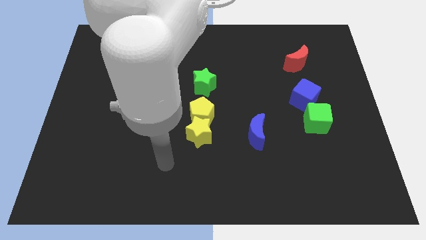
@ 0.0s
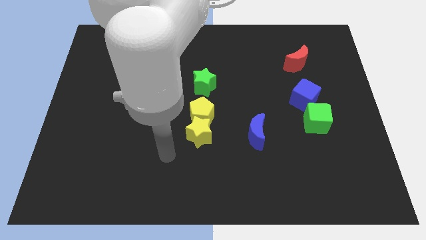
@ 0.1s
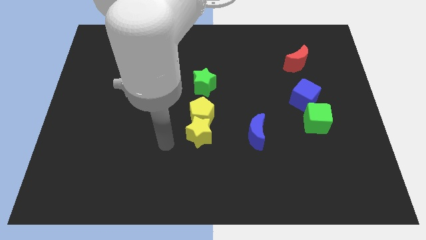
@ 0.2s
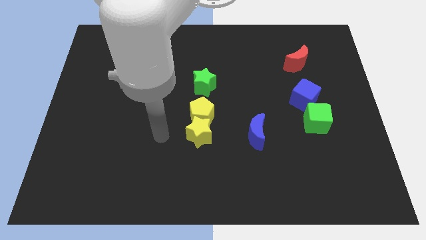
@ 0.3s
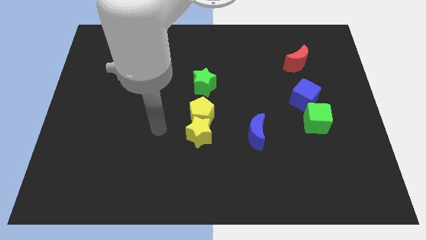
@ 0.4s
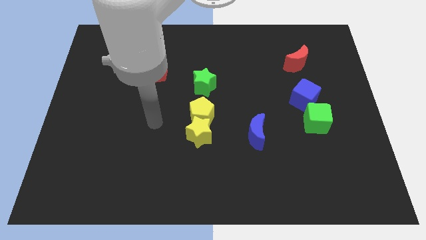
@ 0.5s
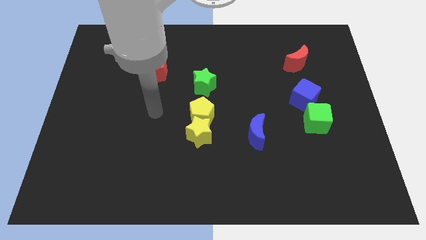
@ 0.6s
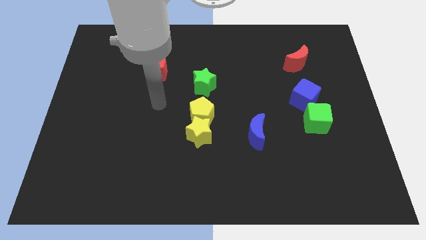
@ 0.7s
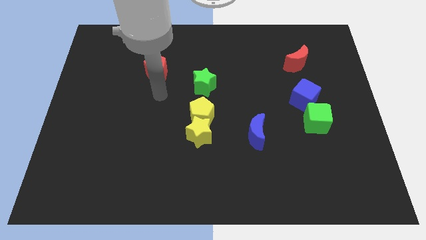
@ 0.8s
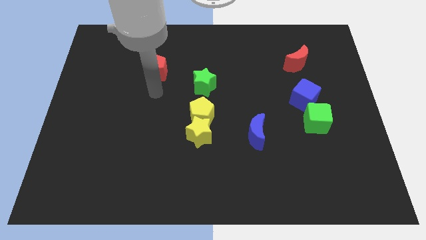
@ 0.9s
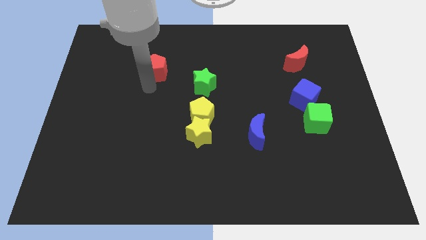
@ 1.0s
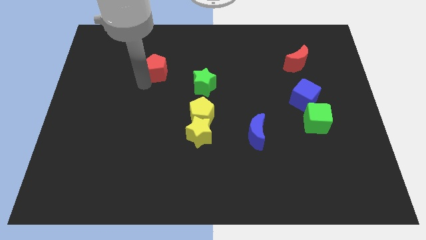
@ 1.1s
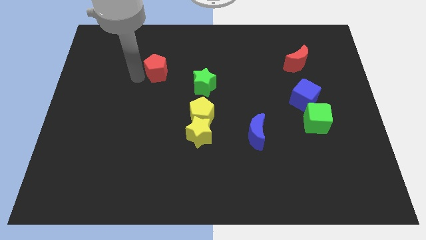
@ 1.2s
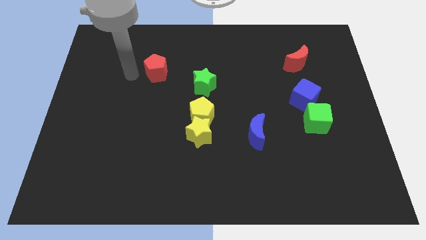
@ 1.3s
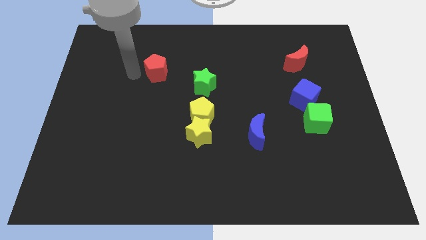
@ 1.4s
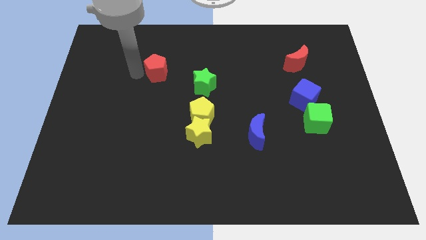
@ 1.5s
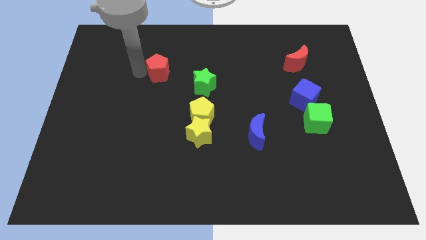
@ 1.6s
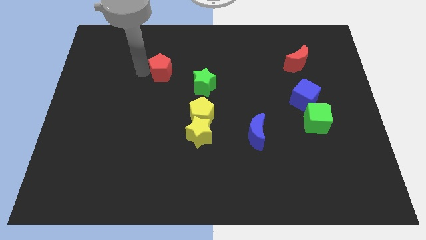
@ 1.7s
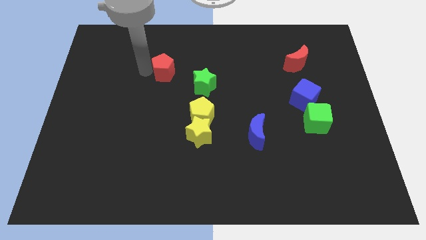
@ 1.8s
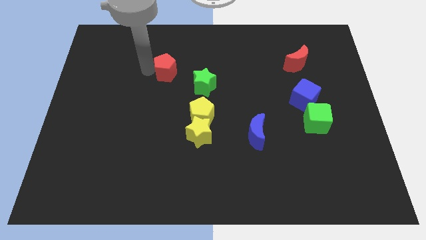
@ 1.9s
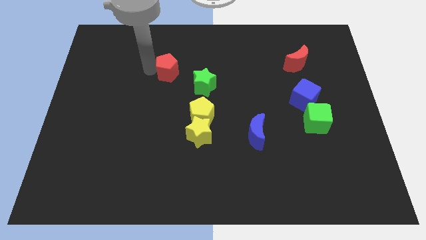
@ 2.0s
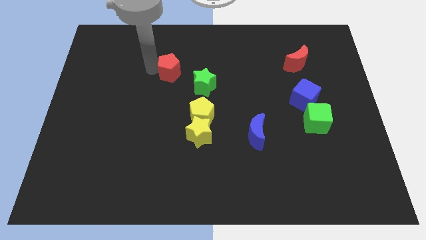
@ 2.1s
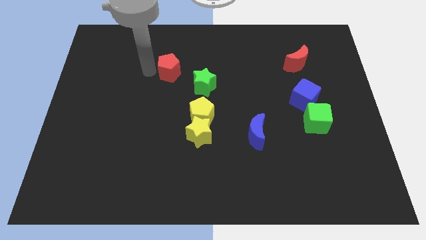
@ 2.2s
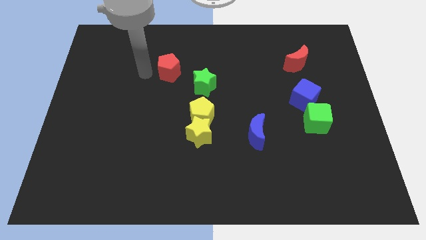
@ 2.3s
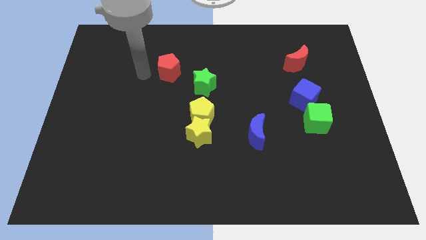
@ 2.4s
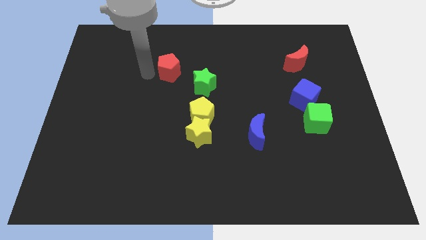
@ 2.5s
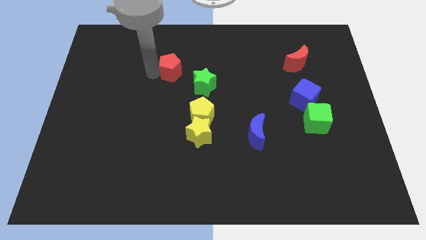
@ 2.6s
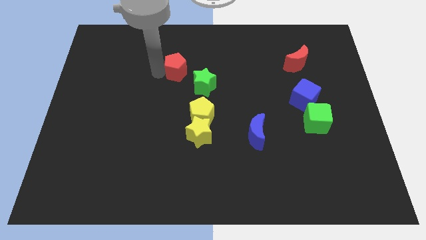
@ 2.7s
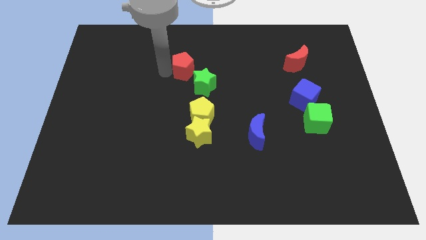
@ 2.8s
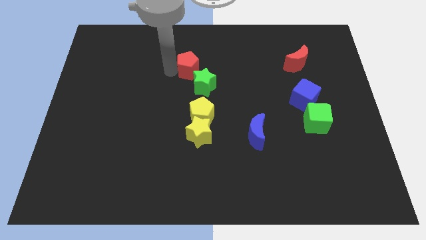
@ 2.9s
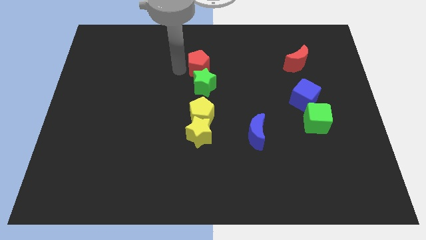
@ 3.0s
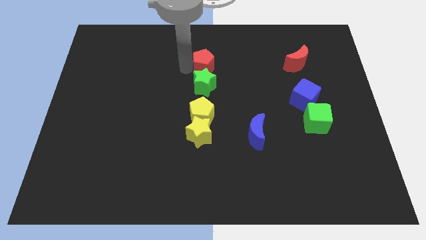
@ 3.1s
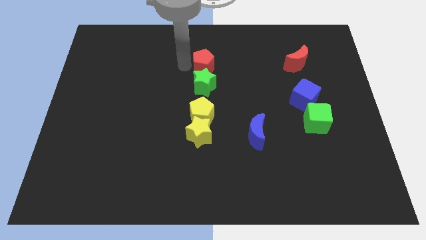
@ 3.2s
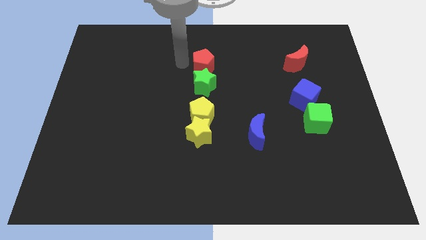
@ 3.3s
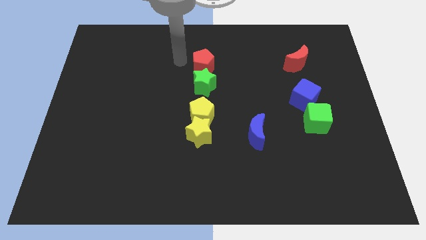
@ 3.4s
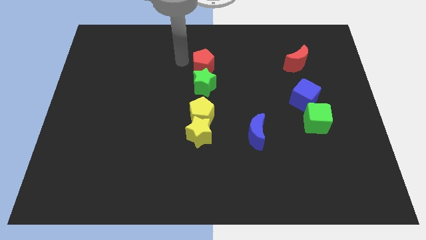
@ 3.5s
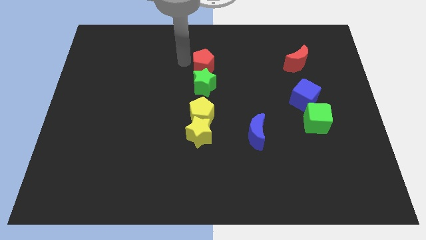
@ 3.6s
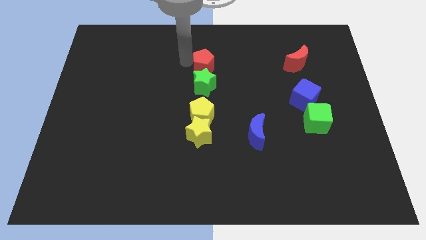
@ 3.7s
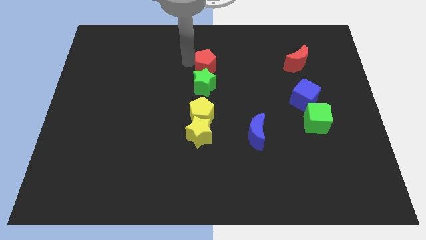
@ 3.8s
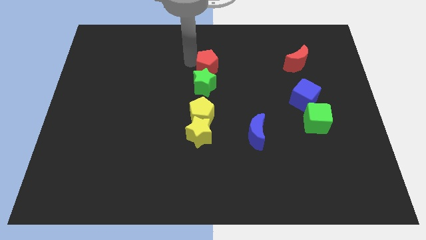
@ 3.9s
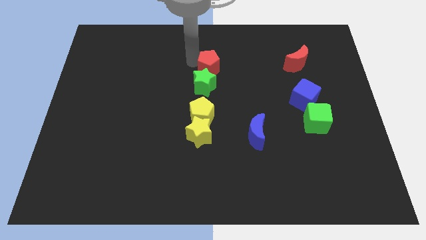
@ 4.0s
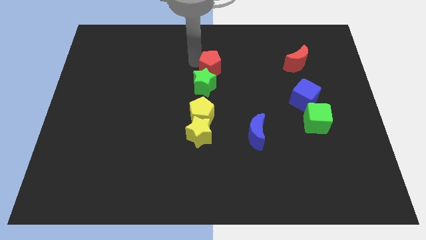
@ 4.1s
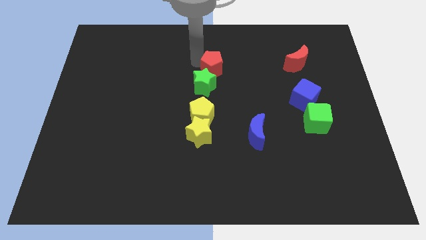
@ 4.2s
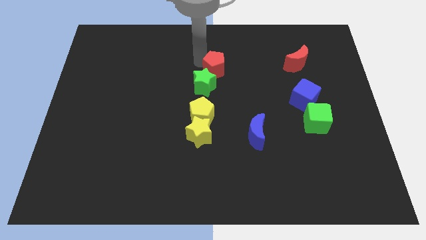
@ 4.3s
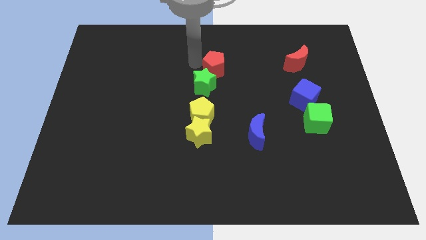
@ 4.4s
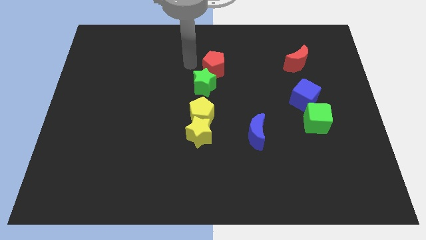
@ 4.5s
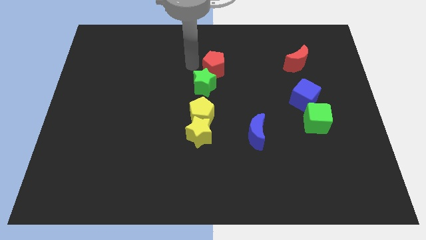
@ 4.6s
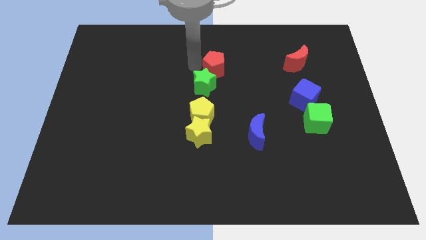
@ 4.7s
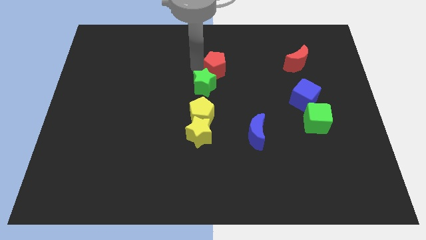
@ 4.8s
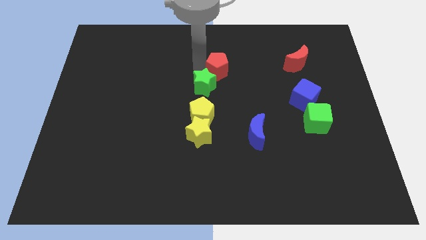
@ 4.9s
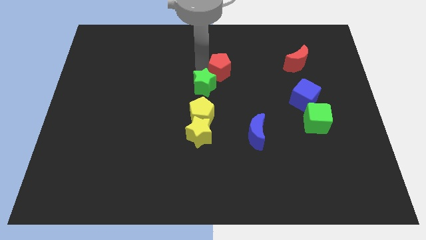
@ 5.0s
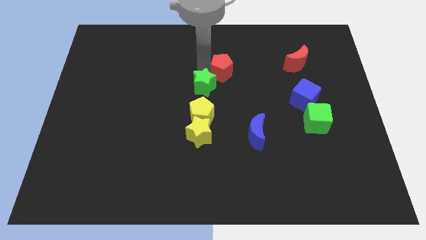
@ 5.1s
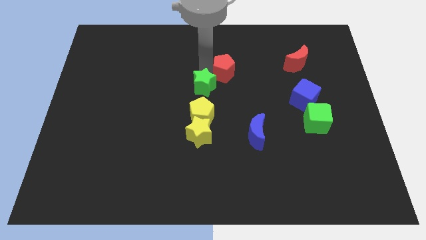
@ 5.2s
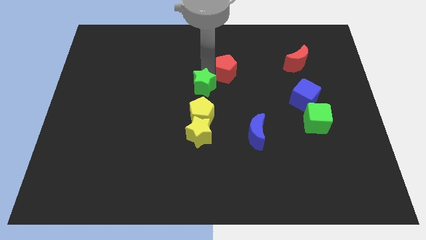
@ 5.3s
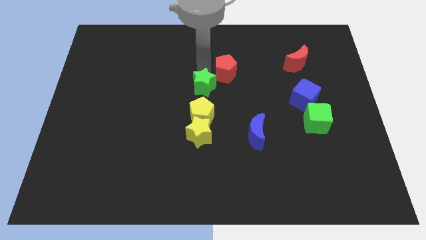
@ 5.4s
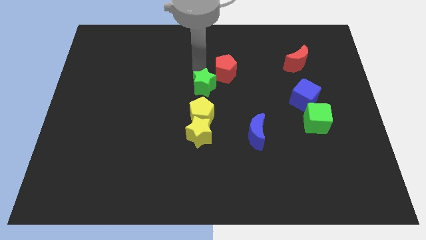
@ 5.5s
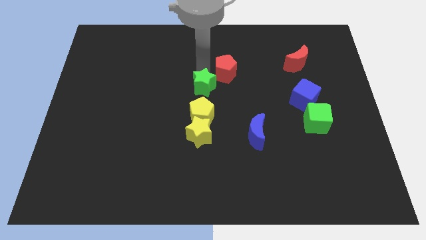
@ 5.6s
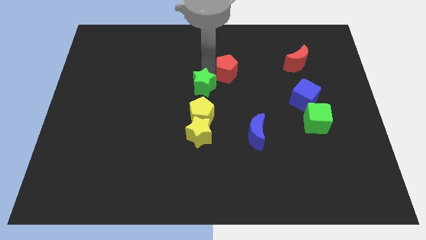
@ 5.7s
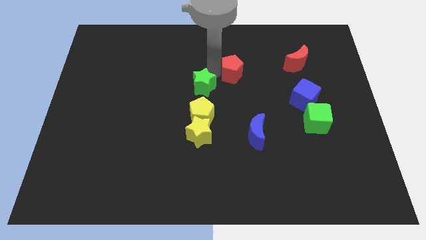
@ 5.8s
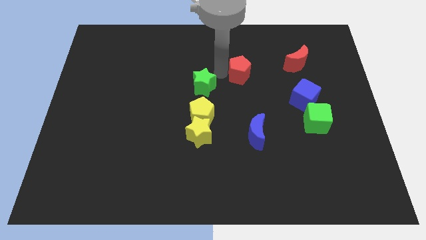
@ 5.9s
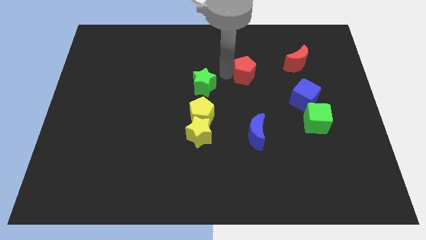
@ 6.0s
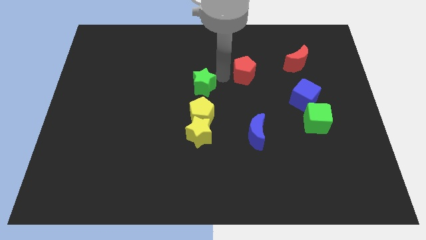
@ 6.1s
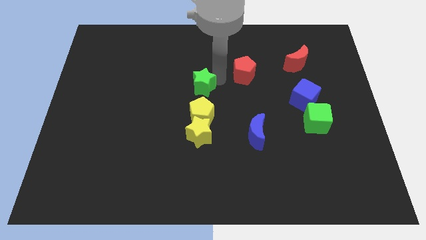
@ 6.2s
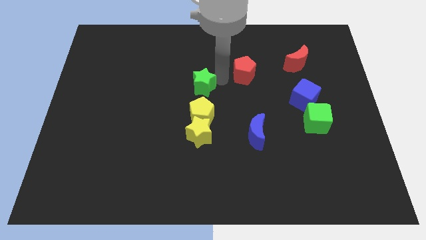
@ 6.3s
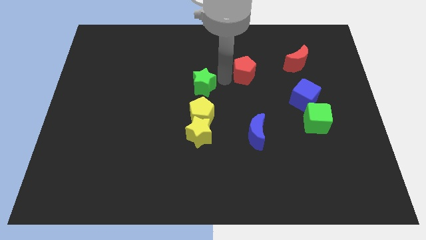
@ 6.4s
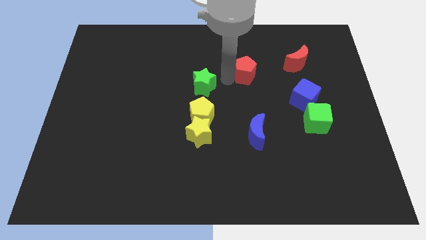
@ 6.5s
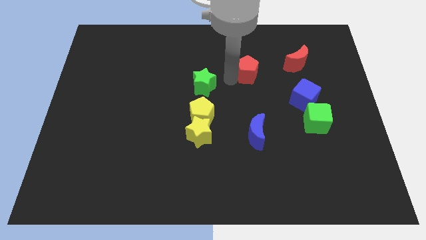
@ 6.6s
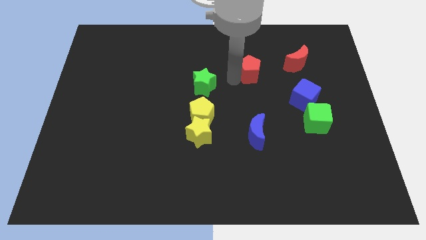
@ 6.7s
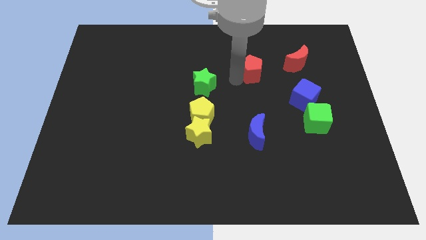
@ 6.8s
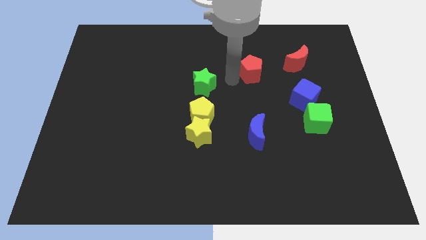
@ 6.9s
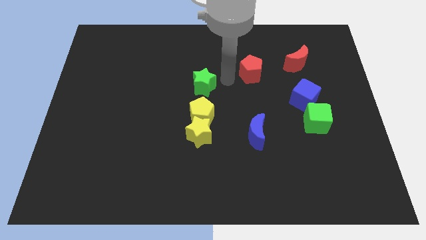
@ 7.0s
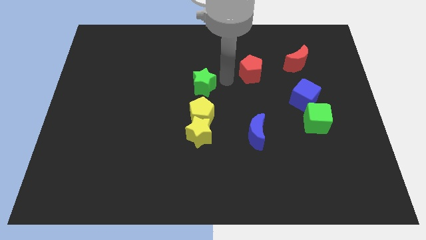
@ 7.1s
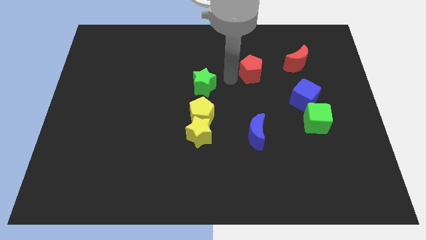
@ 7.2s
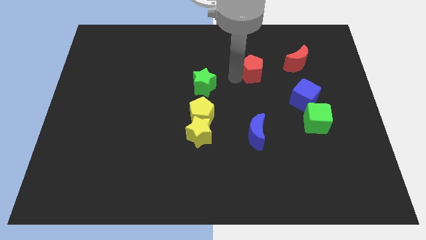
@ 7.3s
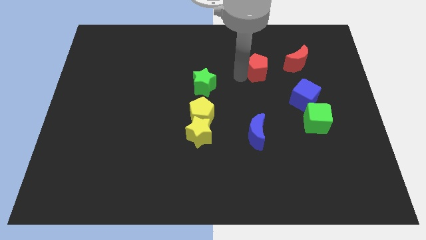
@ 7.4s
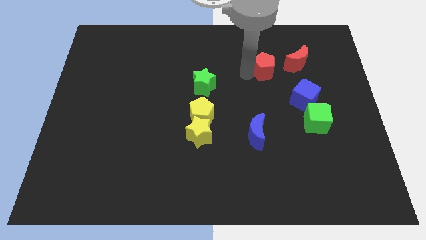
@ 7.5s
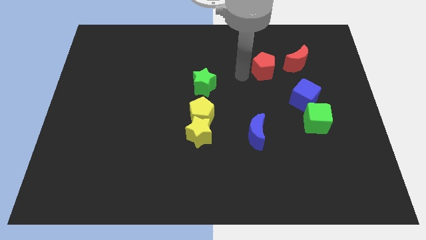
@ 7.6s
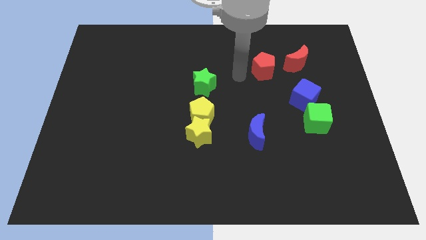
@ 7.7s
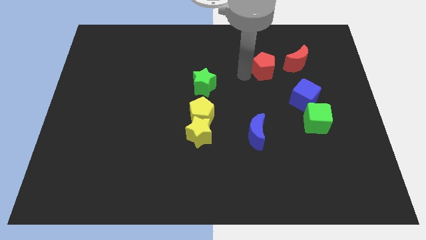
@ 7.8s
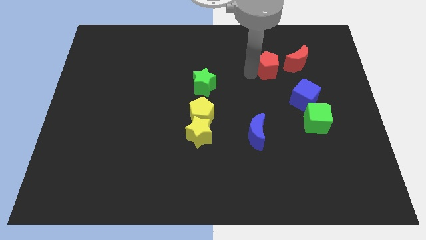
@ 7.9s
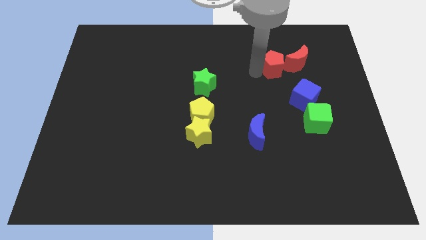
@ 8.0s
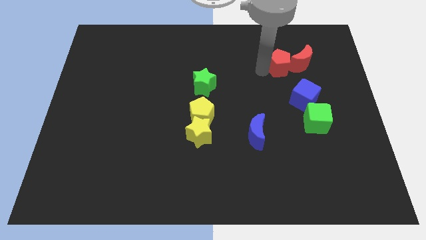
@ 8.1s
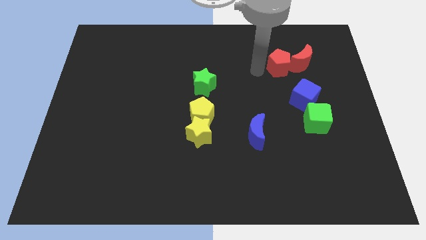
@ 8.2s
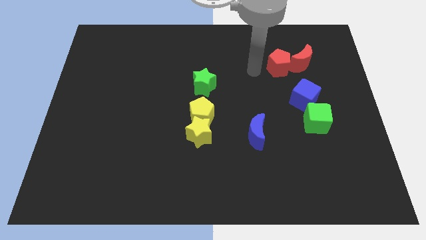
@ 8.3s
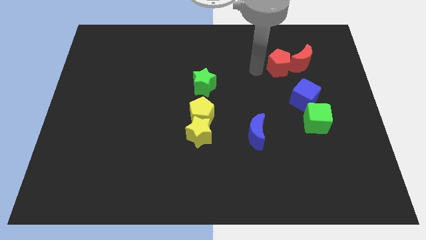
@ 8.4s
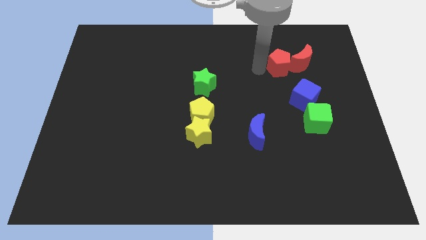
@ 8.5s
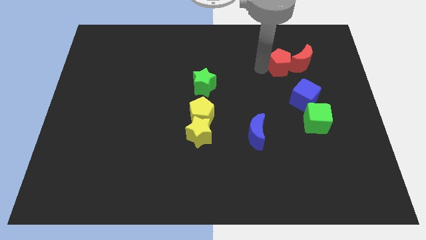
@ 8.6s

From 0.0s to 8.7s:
move the red pentagon towards the red moon
